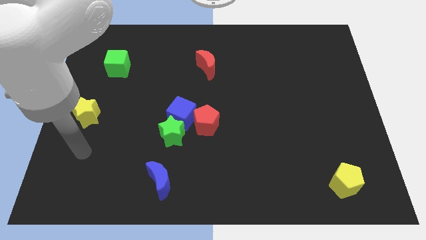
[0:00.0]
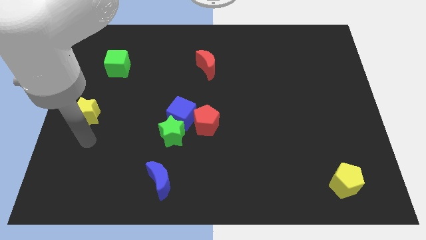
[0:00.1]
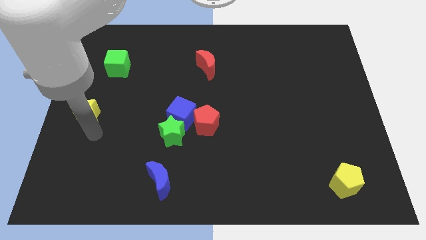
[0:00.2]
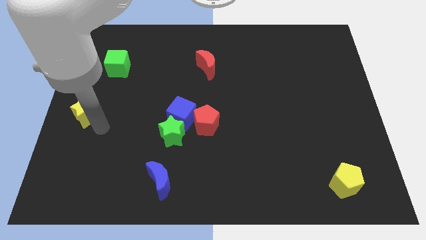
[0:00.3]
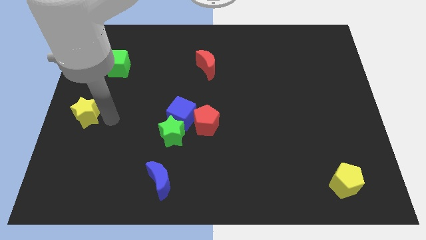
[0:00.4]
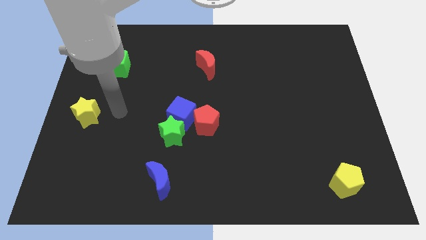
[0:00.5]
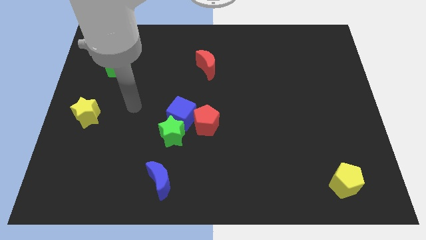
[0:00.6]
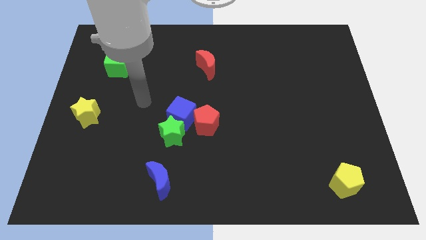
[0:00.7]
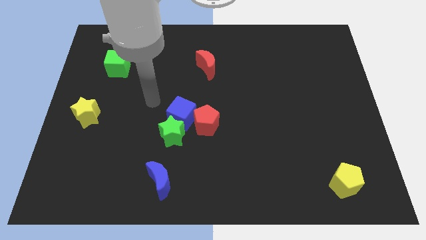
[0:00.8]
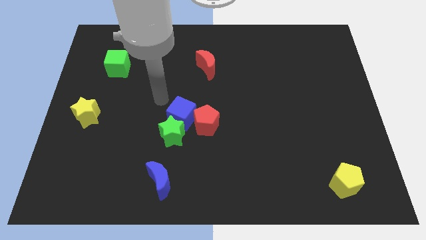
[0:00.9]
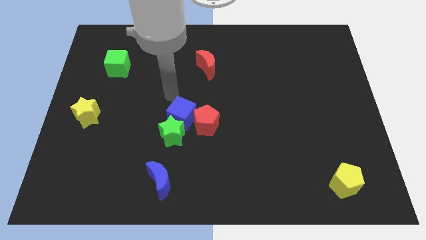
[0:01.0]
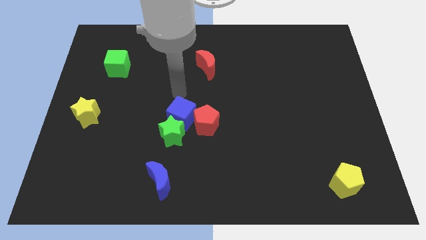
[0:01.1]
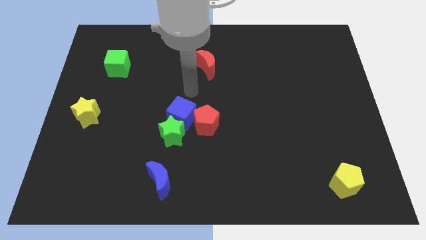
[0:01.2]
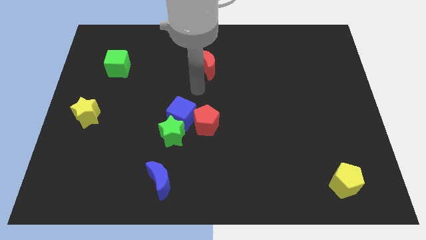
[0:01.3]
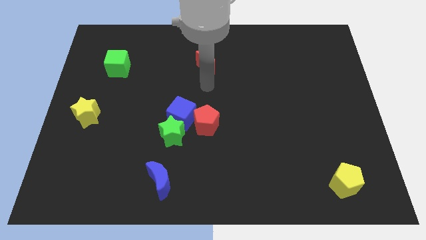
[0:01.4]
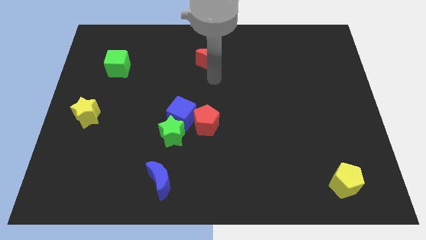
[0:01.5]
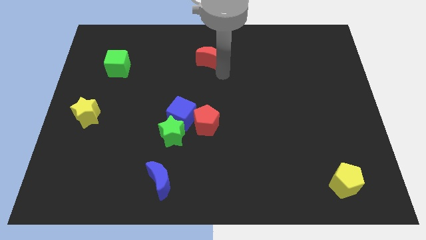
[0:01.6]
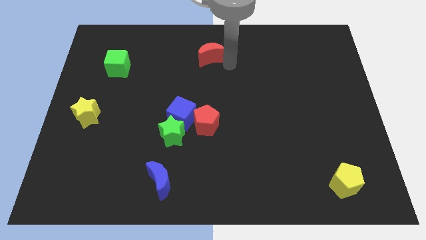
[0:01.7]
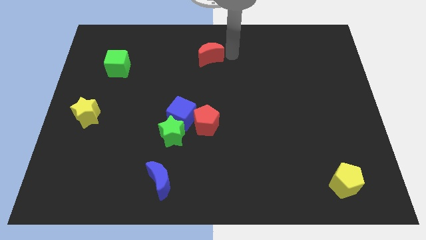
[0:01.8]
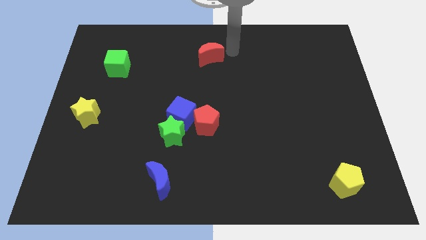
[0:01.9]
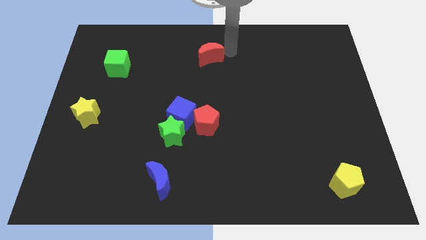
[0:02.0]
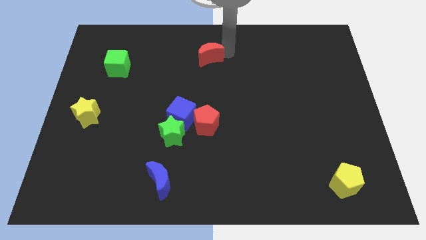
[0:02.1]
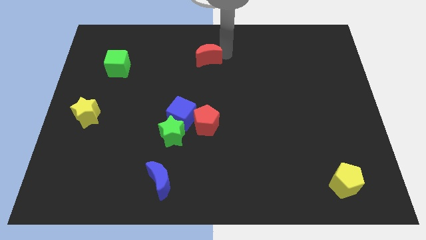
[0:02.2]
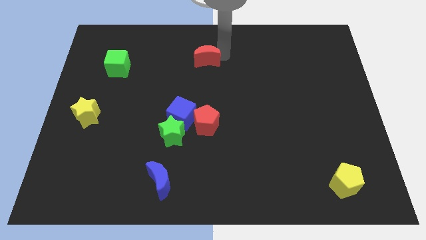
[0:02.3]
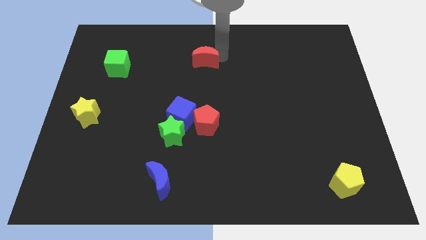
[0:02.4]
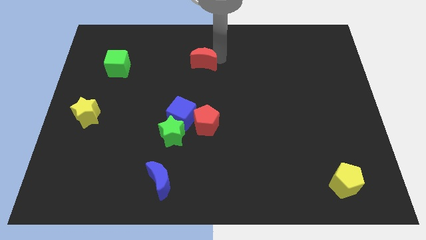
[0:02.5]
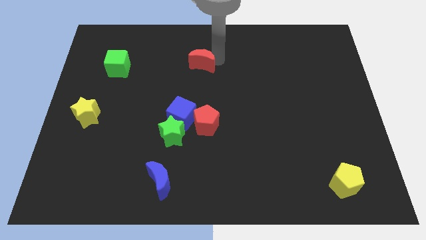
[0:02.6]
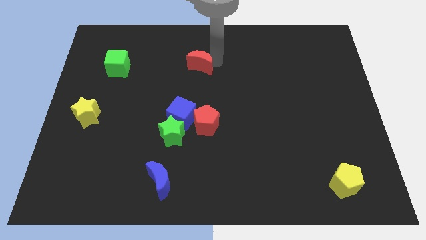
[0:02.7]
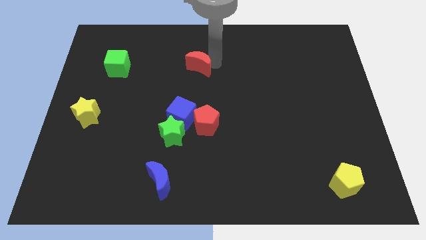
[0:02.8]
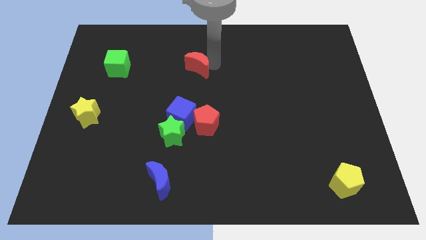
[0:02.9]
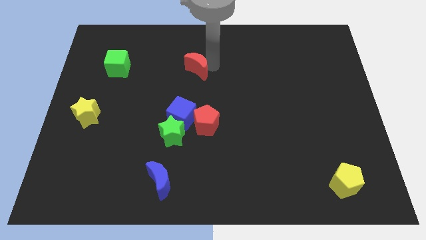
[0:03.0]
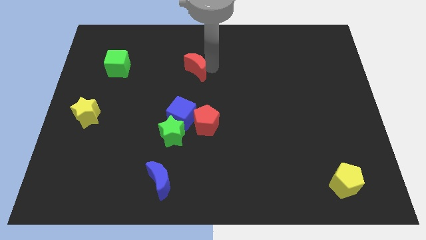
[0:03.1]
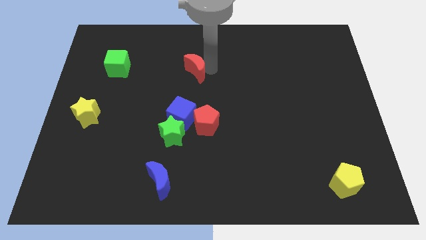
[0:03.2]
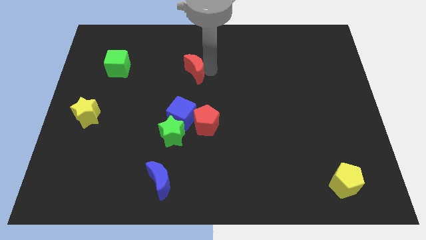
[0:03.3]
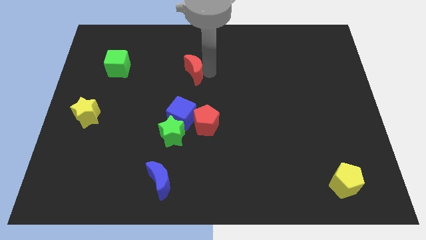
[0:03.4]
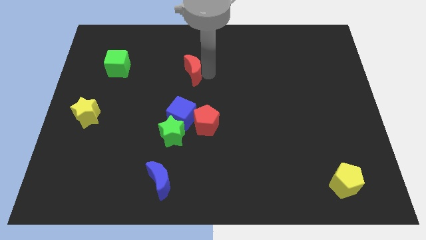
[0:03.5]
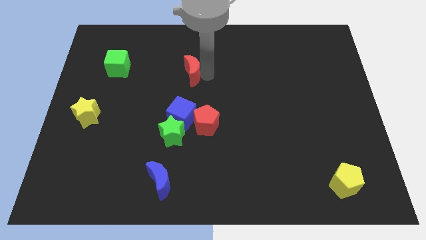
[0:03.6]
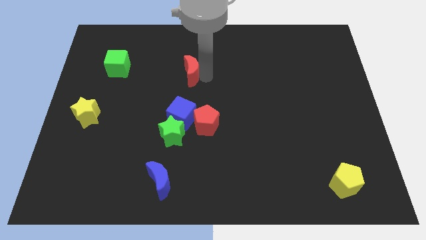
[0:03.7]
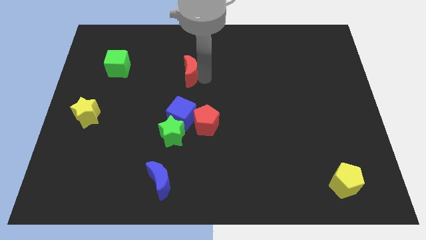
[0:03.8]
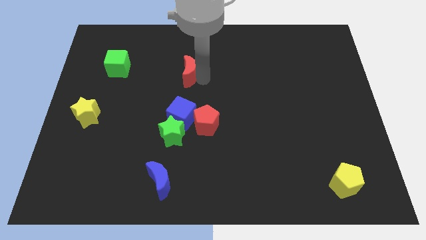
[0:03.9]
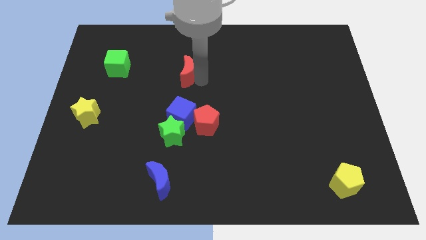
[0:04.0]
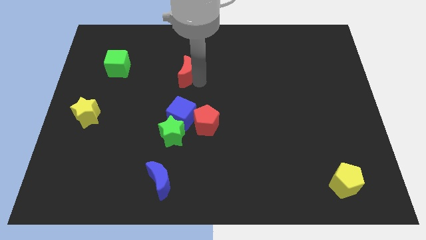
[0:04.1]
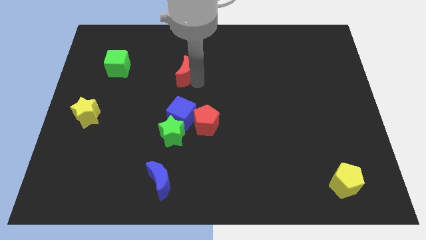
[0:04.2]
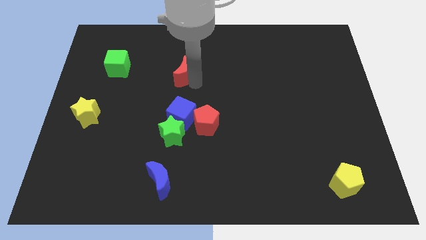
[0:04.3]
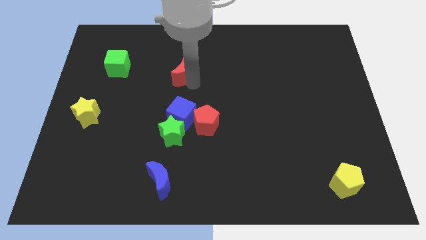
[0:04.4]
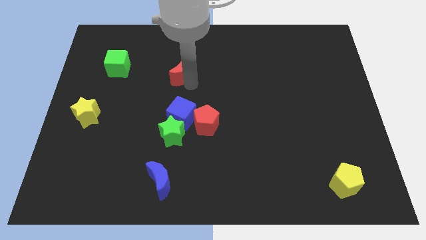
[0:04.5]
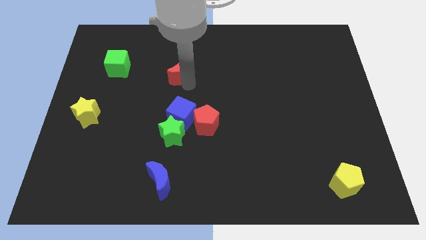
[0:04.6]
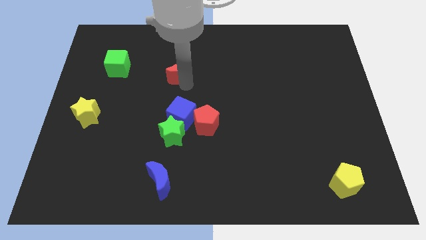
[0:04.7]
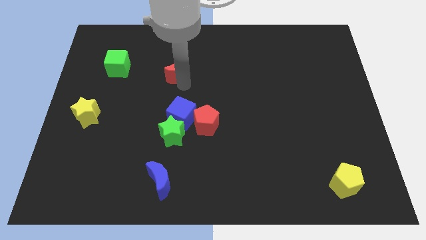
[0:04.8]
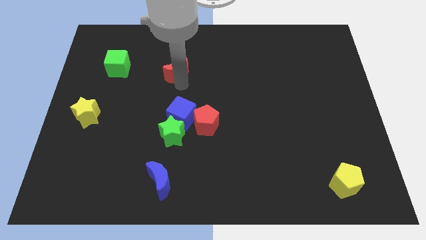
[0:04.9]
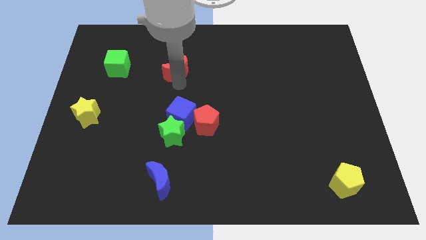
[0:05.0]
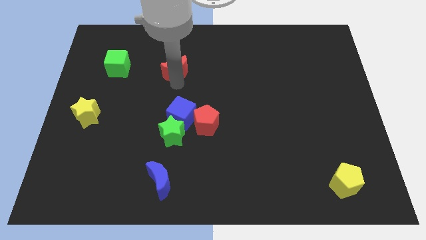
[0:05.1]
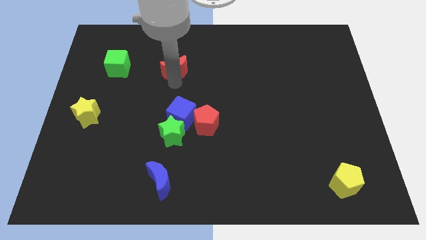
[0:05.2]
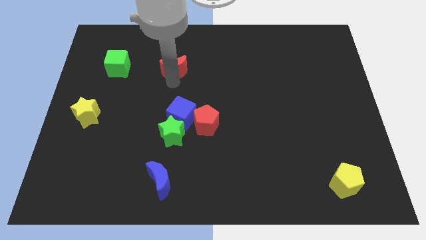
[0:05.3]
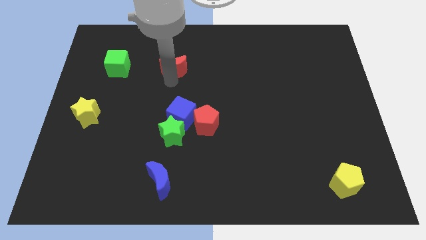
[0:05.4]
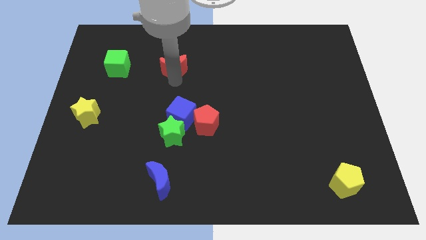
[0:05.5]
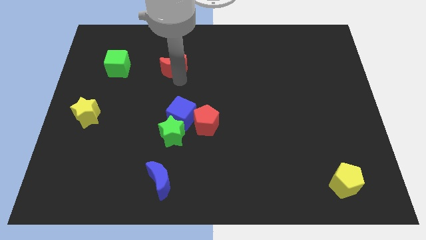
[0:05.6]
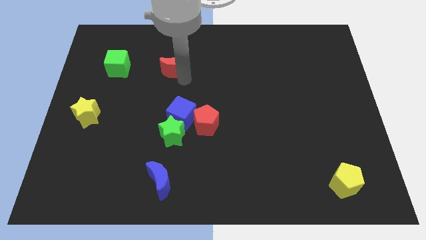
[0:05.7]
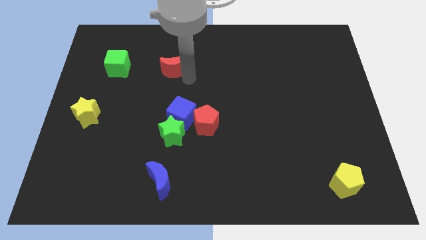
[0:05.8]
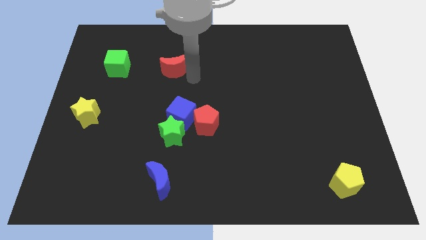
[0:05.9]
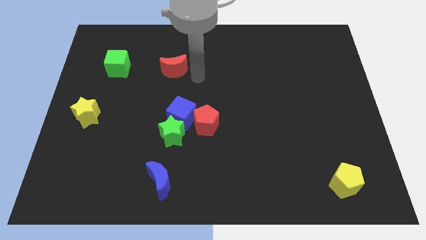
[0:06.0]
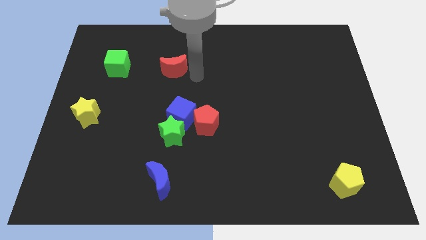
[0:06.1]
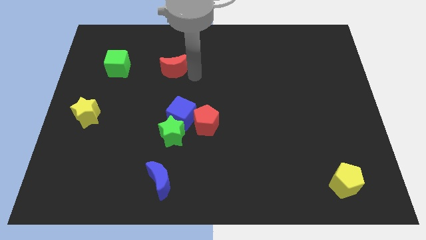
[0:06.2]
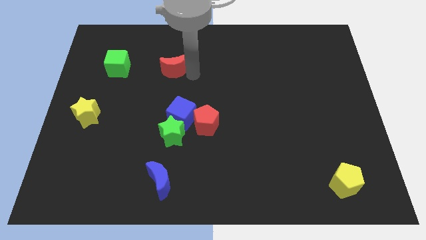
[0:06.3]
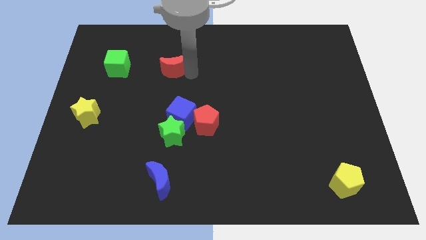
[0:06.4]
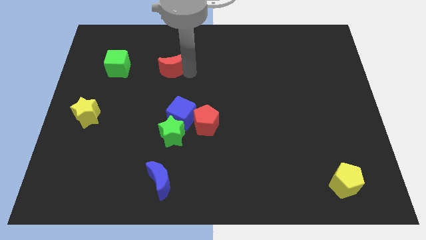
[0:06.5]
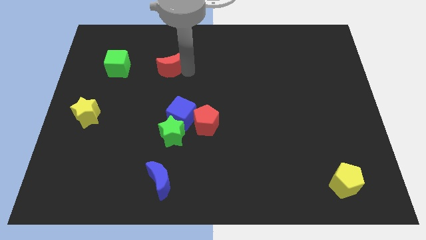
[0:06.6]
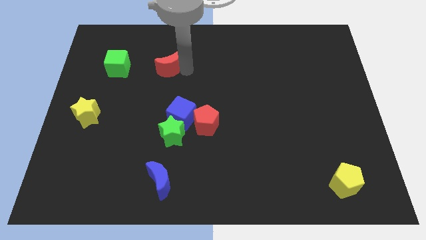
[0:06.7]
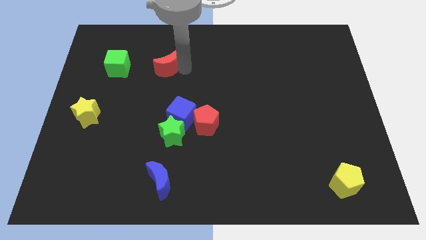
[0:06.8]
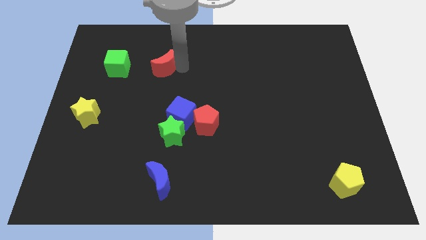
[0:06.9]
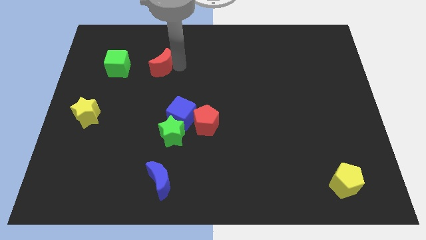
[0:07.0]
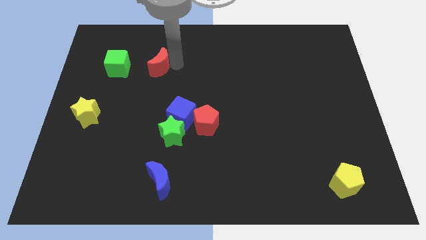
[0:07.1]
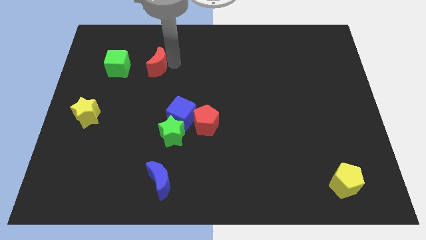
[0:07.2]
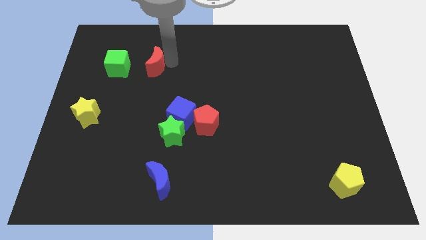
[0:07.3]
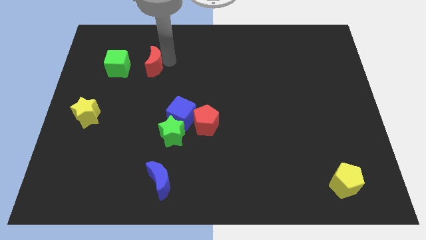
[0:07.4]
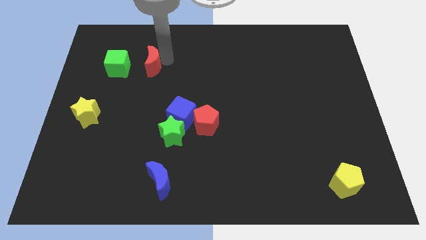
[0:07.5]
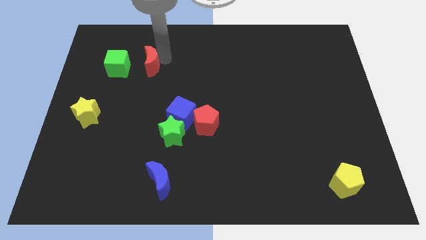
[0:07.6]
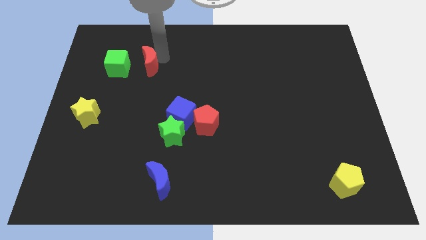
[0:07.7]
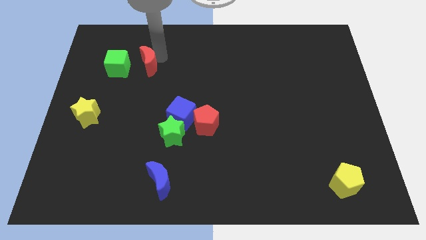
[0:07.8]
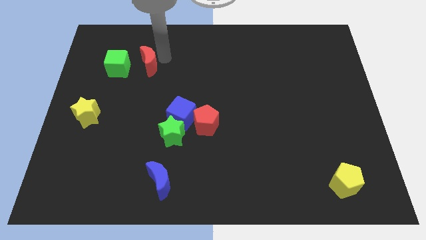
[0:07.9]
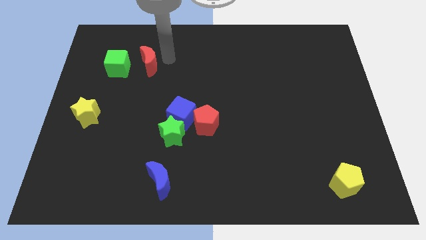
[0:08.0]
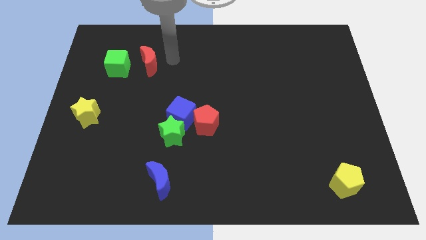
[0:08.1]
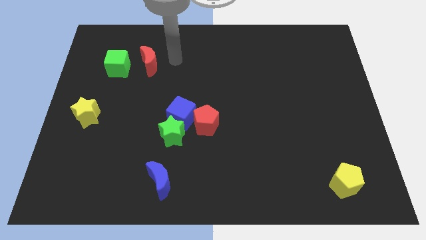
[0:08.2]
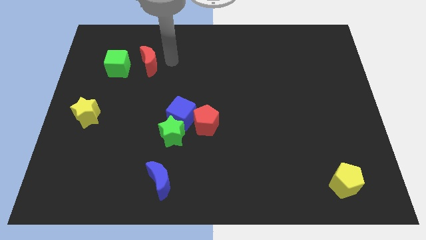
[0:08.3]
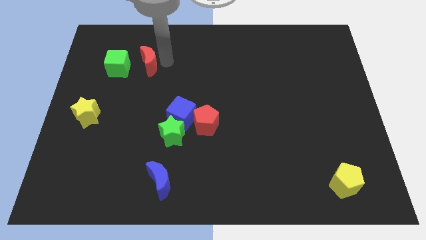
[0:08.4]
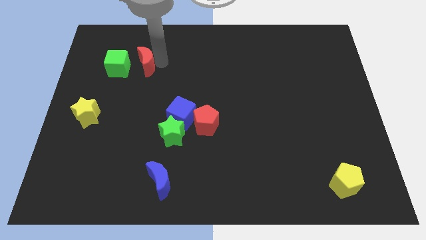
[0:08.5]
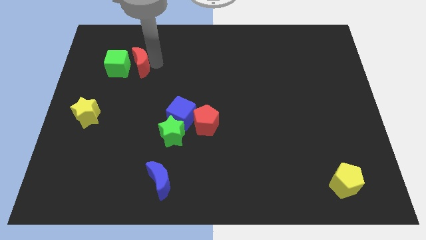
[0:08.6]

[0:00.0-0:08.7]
push the red moon next to the green cube
